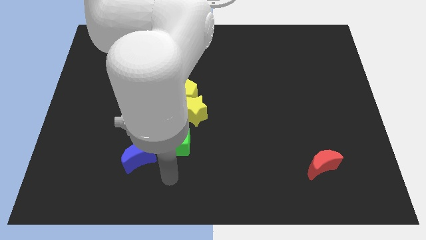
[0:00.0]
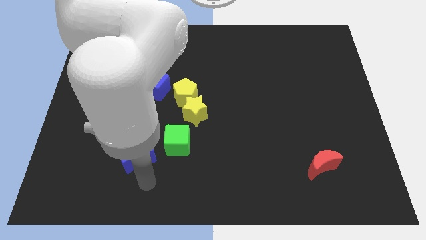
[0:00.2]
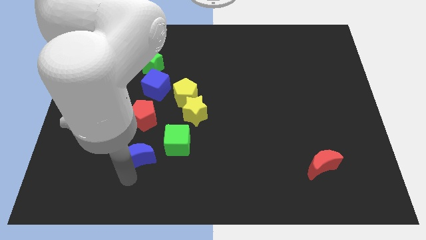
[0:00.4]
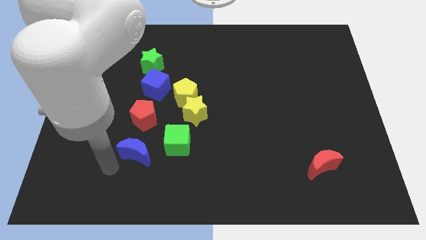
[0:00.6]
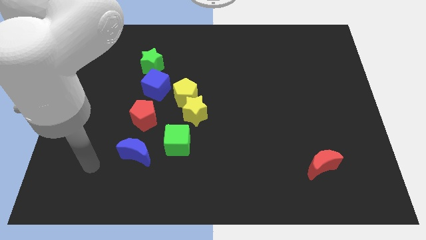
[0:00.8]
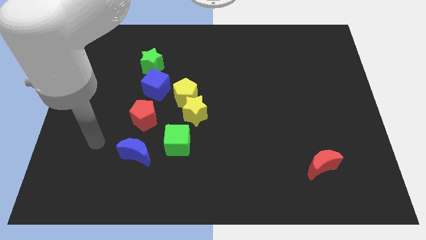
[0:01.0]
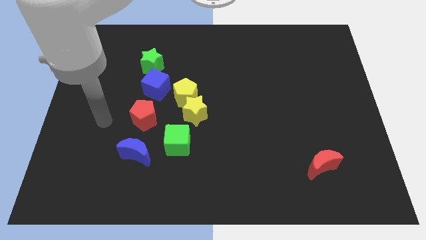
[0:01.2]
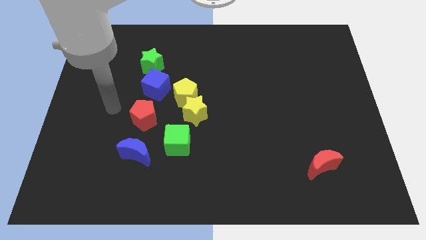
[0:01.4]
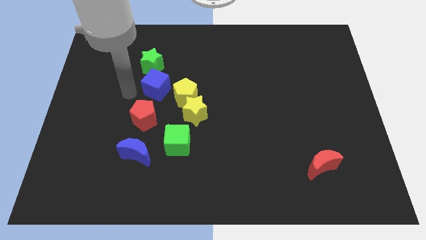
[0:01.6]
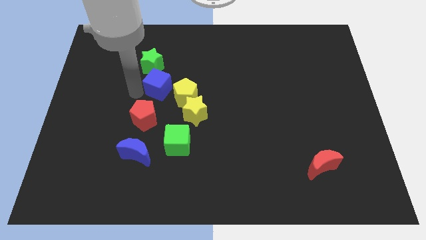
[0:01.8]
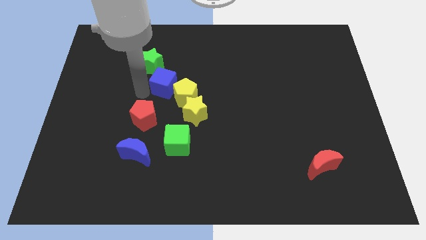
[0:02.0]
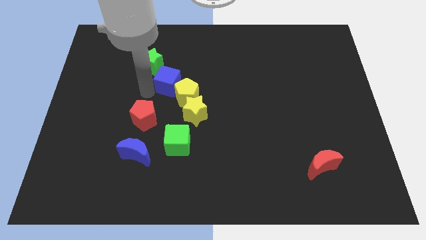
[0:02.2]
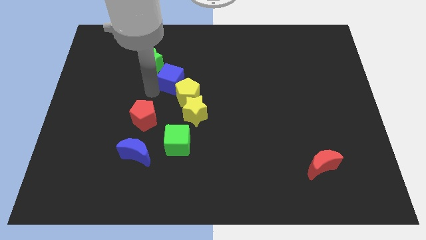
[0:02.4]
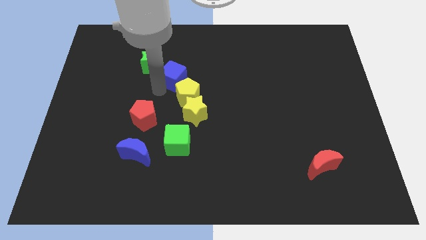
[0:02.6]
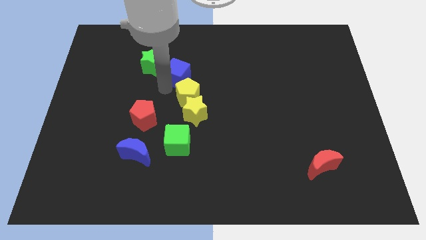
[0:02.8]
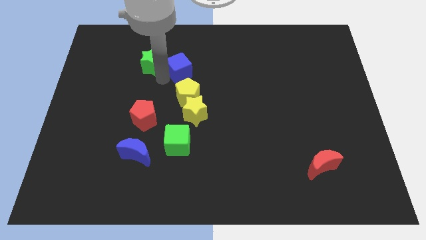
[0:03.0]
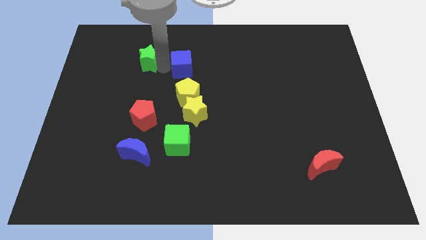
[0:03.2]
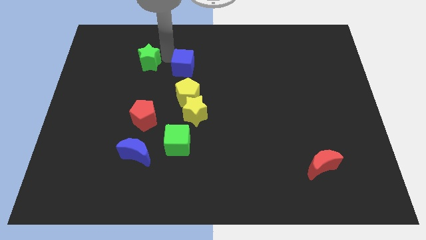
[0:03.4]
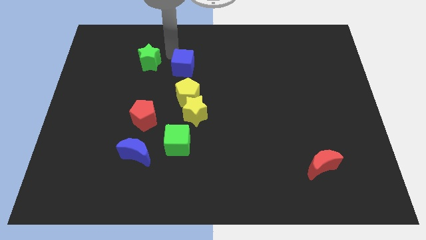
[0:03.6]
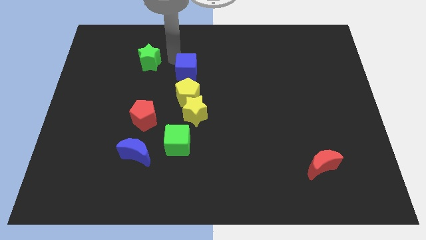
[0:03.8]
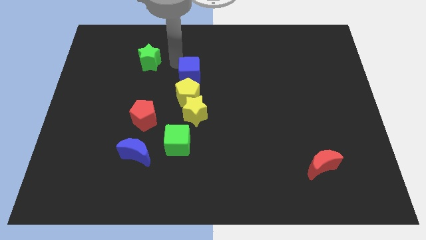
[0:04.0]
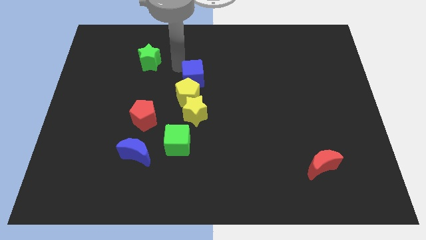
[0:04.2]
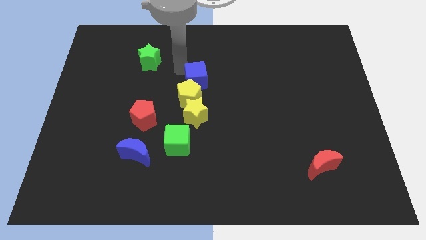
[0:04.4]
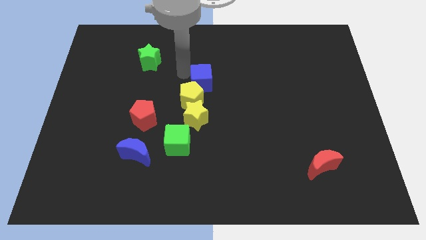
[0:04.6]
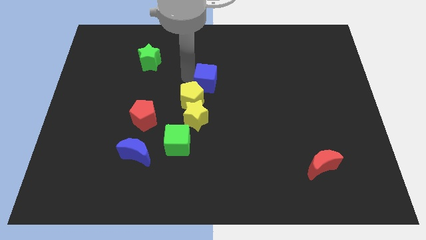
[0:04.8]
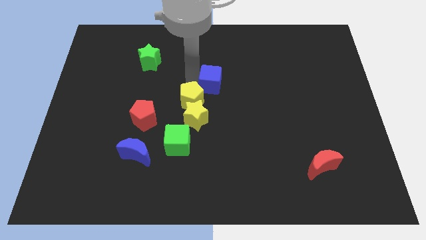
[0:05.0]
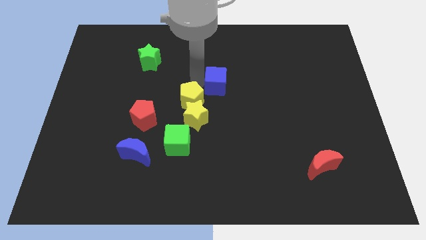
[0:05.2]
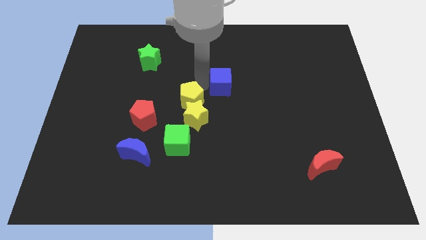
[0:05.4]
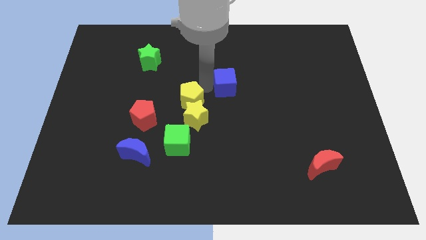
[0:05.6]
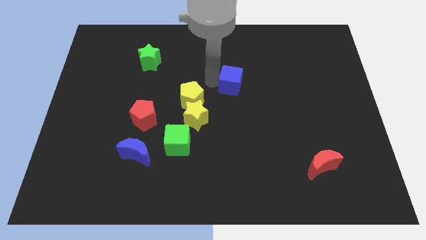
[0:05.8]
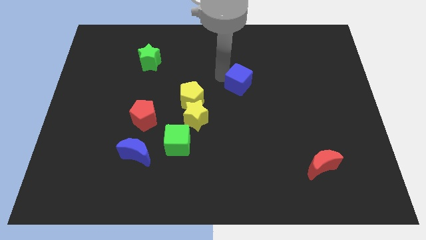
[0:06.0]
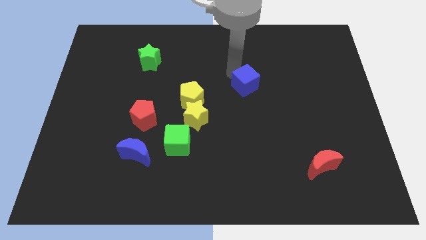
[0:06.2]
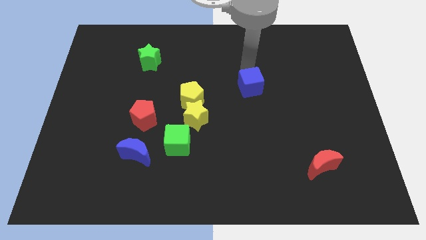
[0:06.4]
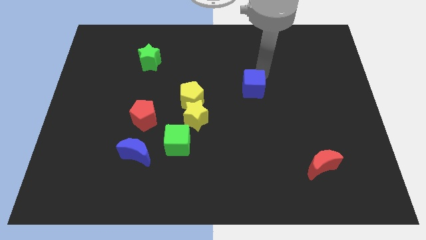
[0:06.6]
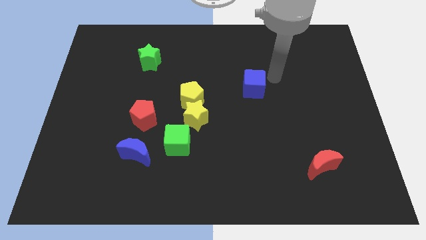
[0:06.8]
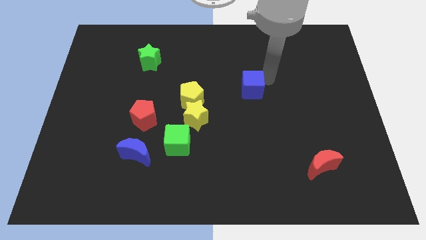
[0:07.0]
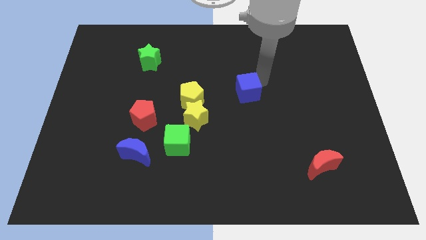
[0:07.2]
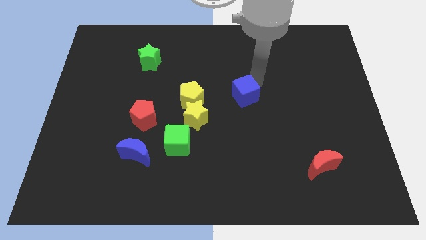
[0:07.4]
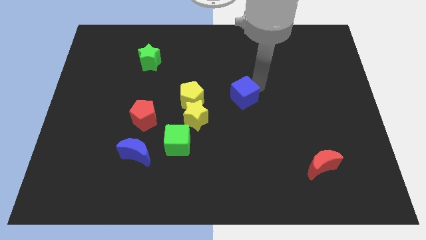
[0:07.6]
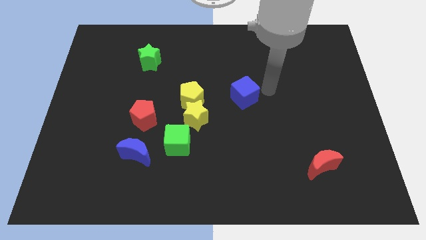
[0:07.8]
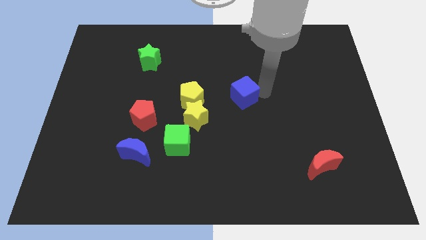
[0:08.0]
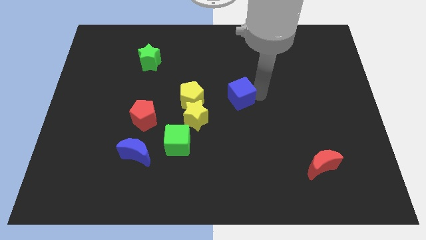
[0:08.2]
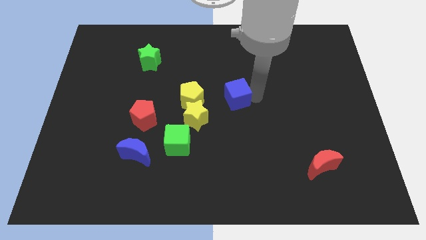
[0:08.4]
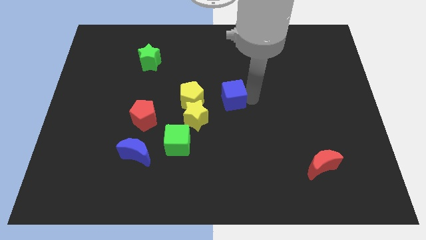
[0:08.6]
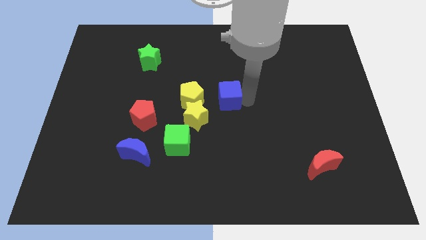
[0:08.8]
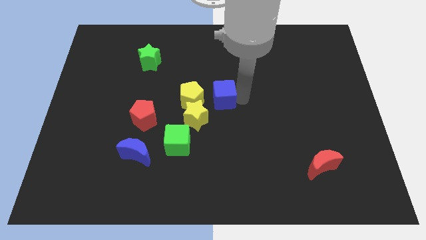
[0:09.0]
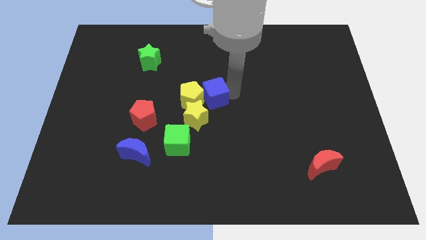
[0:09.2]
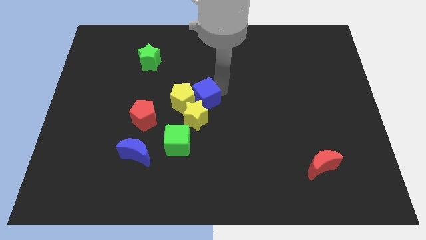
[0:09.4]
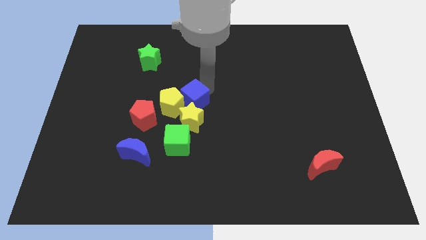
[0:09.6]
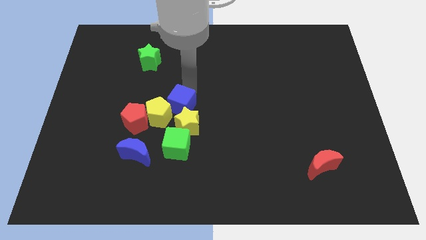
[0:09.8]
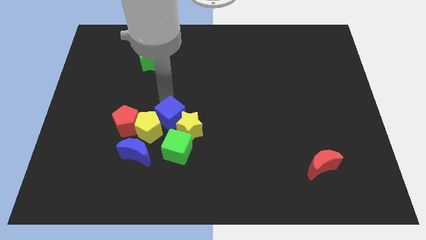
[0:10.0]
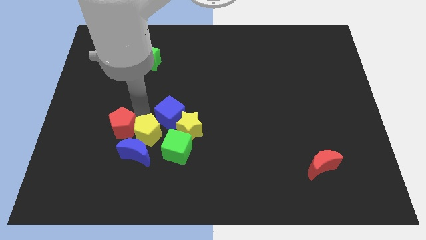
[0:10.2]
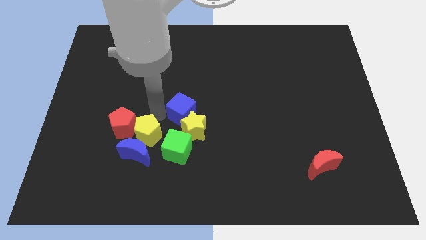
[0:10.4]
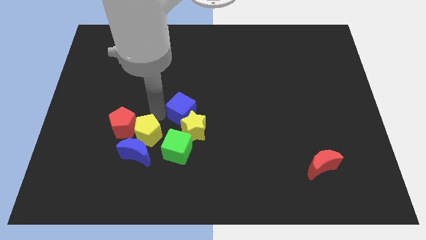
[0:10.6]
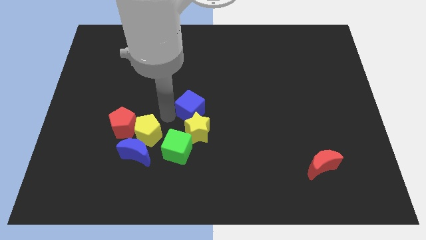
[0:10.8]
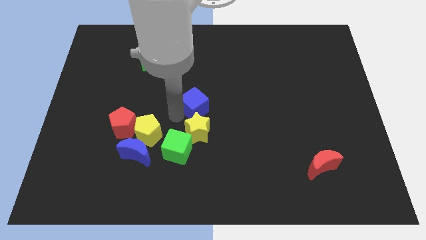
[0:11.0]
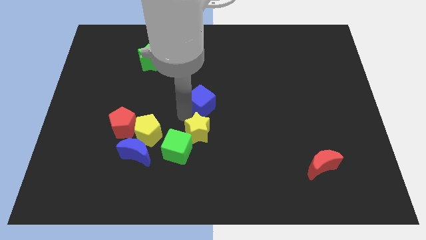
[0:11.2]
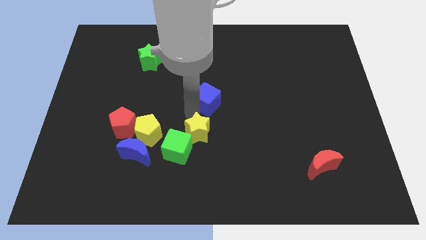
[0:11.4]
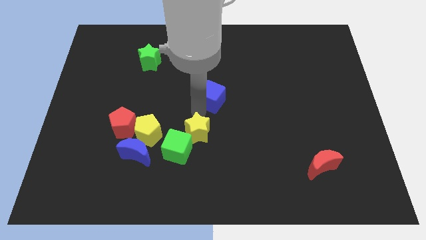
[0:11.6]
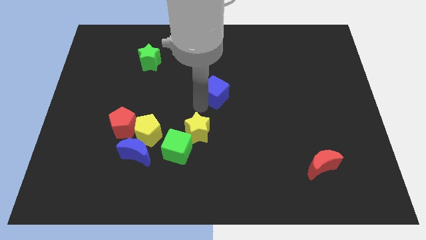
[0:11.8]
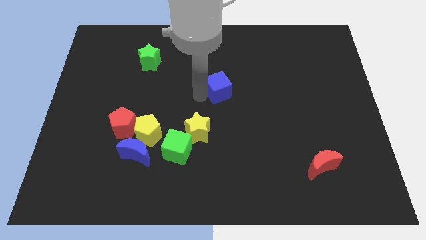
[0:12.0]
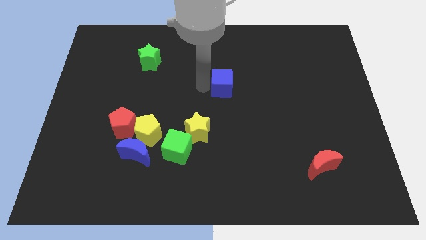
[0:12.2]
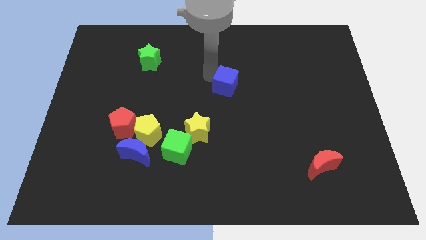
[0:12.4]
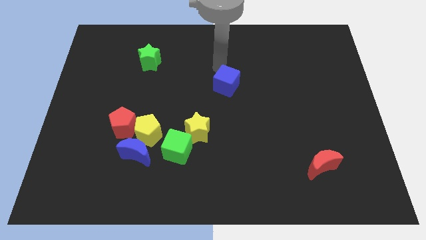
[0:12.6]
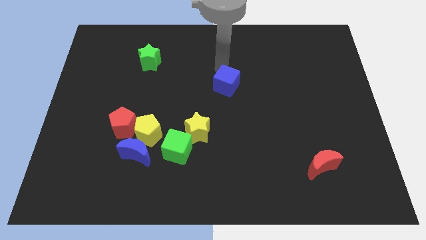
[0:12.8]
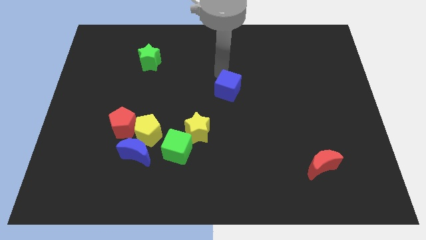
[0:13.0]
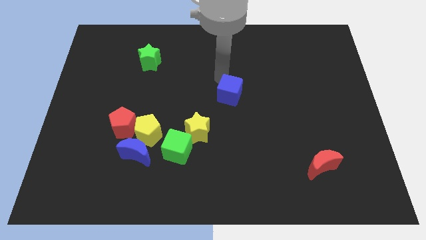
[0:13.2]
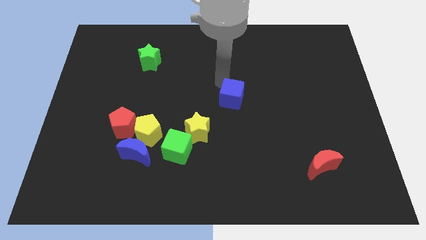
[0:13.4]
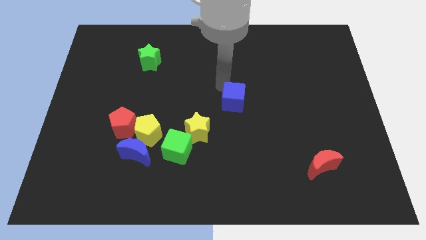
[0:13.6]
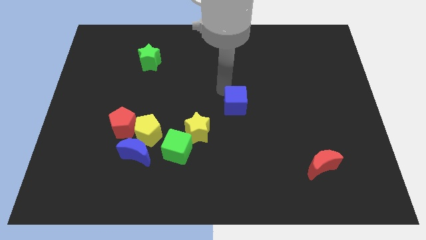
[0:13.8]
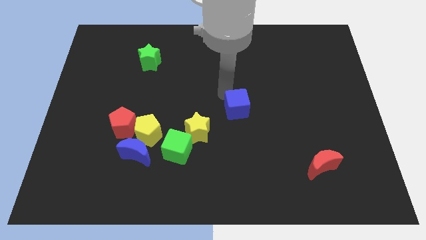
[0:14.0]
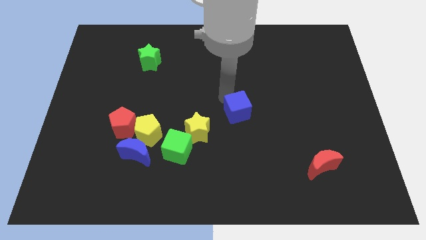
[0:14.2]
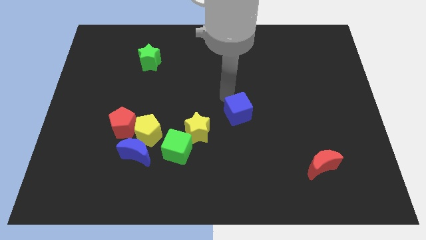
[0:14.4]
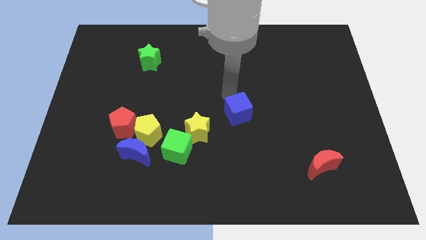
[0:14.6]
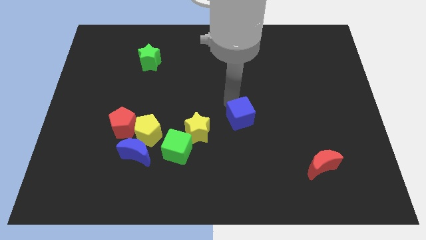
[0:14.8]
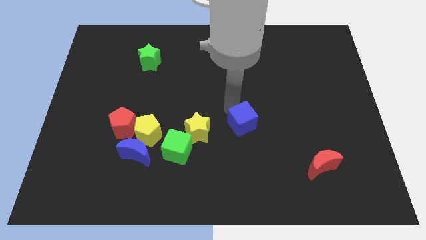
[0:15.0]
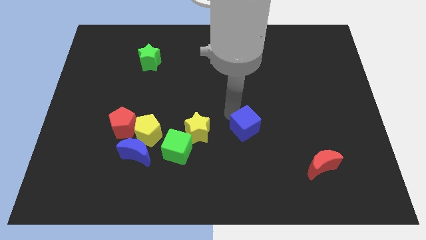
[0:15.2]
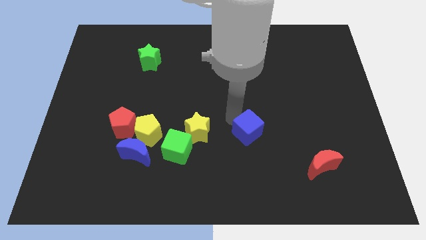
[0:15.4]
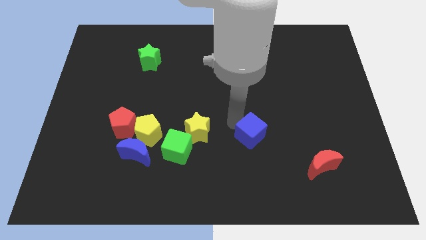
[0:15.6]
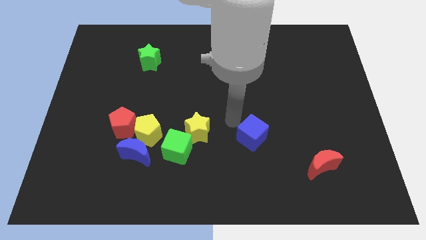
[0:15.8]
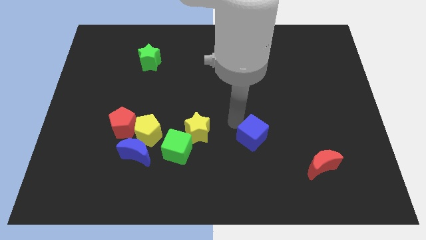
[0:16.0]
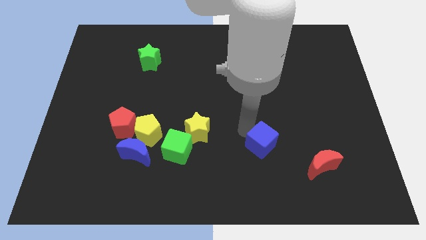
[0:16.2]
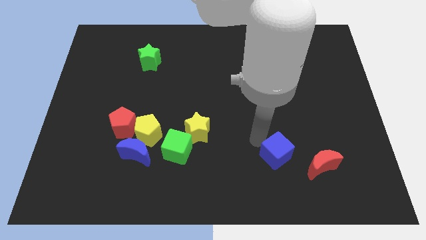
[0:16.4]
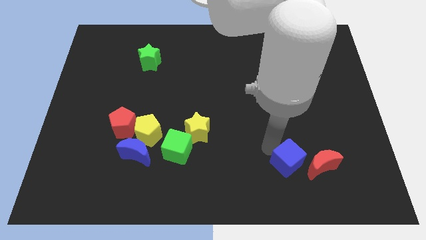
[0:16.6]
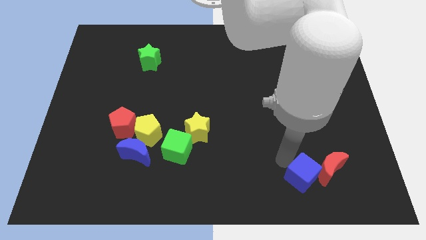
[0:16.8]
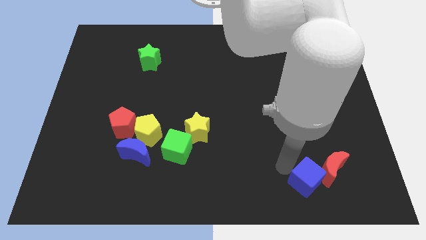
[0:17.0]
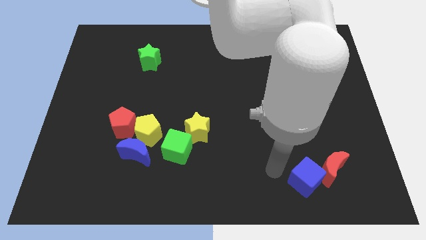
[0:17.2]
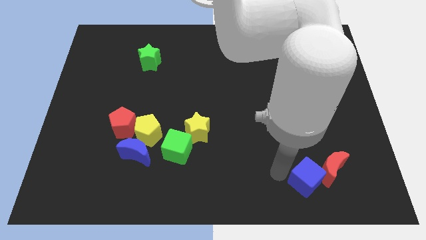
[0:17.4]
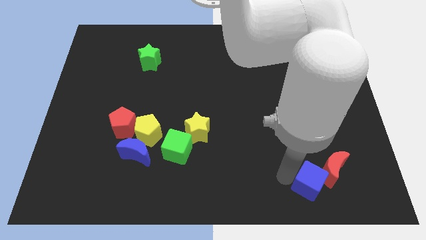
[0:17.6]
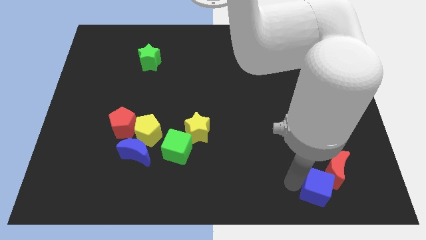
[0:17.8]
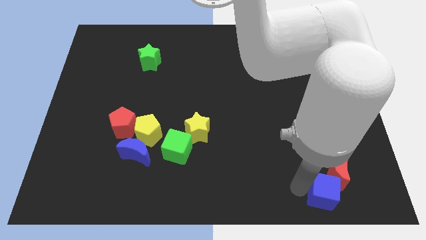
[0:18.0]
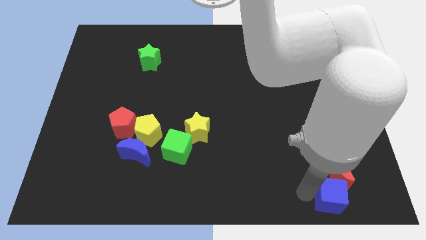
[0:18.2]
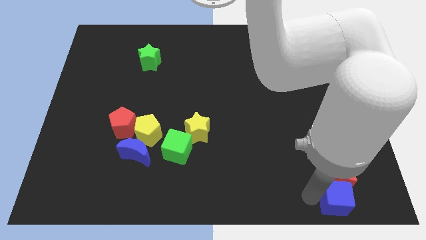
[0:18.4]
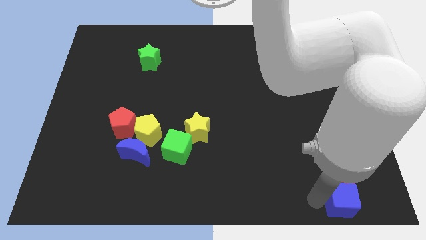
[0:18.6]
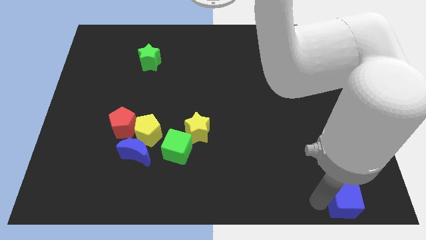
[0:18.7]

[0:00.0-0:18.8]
slide the blue cube to the bottom right of the board
